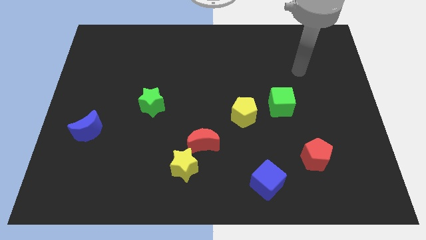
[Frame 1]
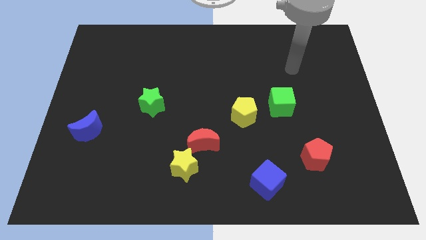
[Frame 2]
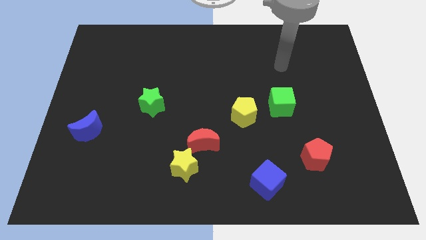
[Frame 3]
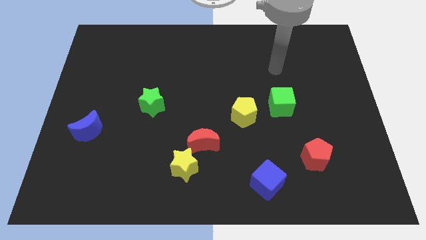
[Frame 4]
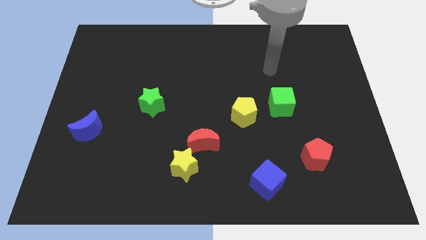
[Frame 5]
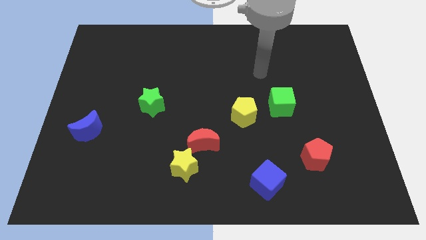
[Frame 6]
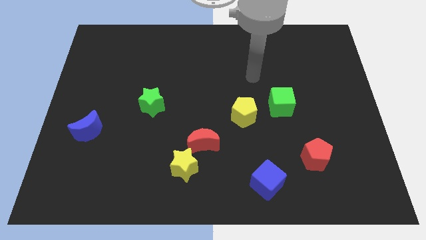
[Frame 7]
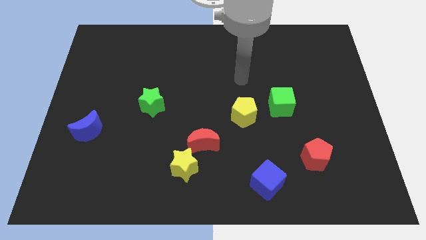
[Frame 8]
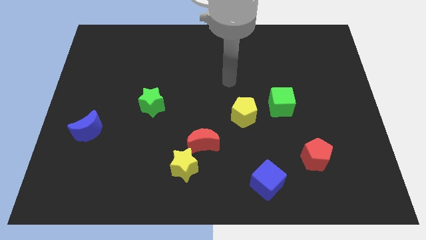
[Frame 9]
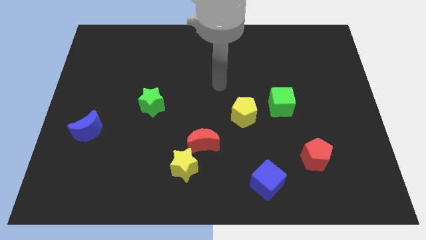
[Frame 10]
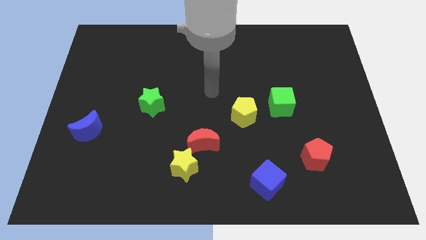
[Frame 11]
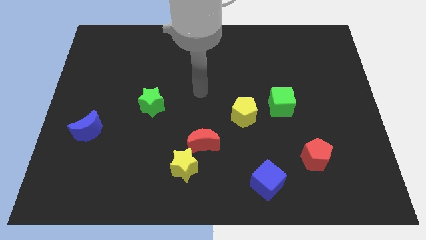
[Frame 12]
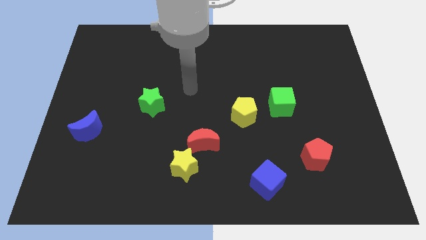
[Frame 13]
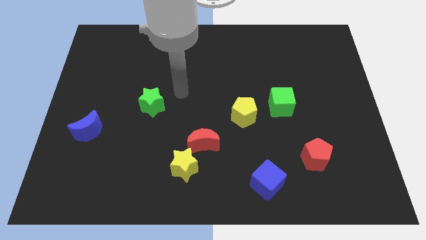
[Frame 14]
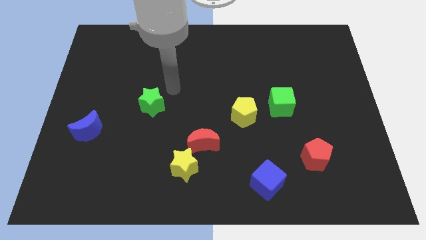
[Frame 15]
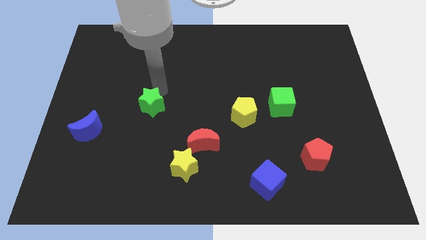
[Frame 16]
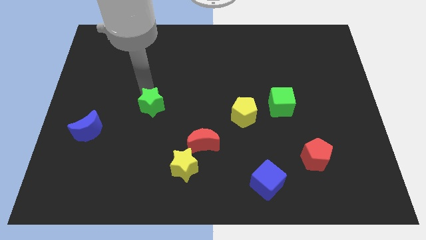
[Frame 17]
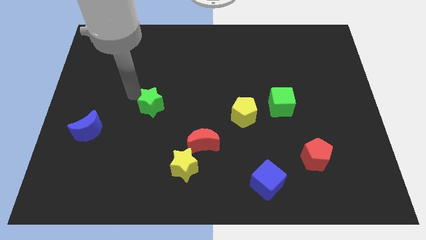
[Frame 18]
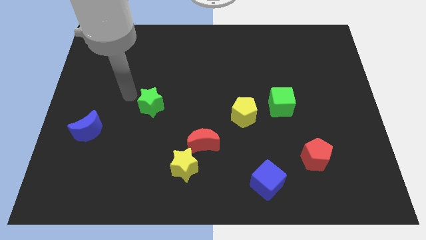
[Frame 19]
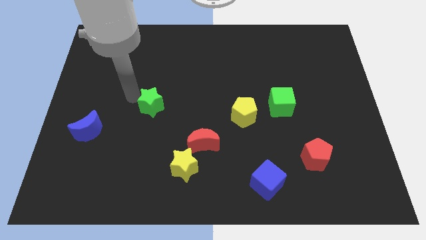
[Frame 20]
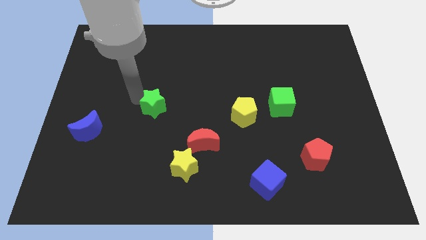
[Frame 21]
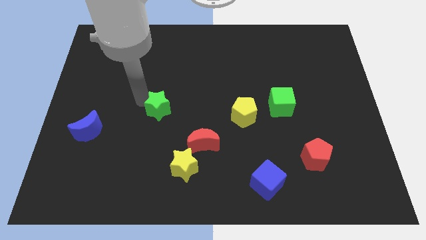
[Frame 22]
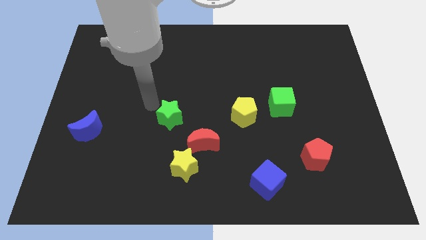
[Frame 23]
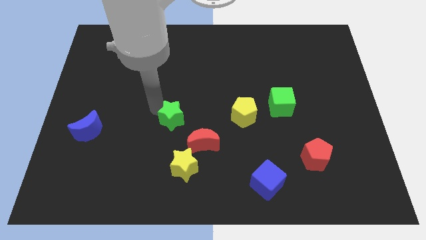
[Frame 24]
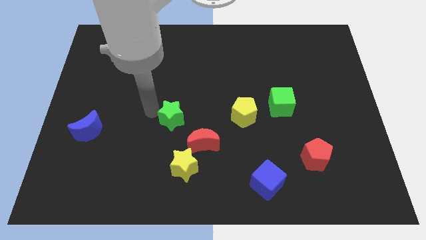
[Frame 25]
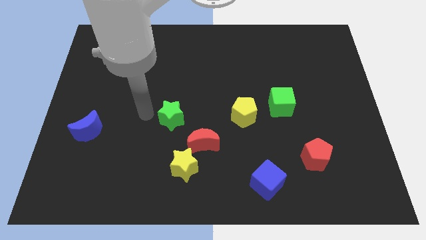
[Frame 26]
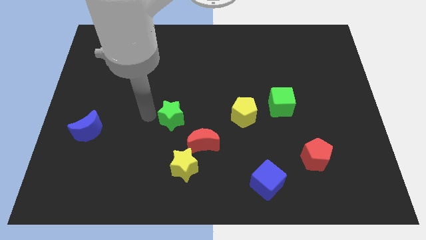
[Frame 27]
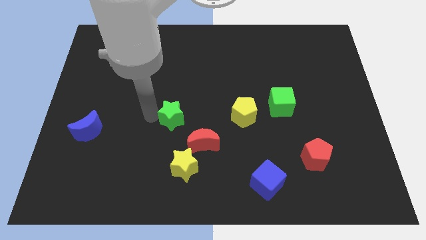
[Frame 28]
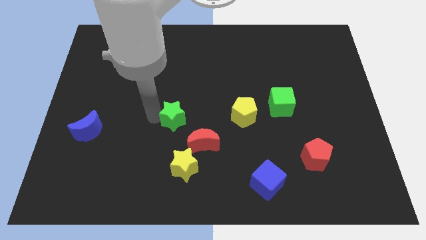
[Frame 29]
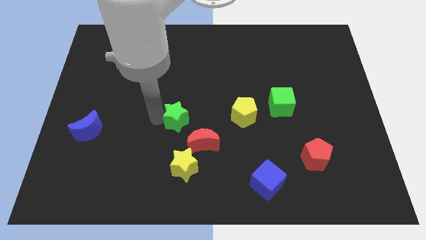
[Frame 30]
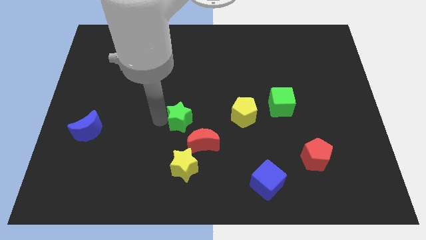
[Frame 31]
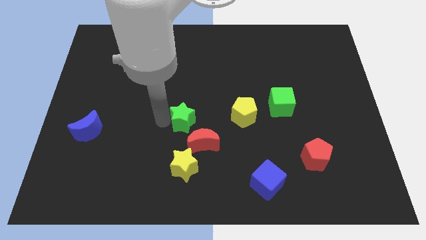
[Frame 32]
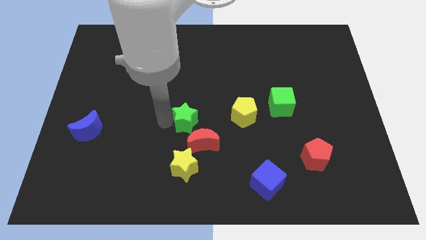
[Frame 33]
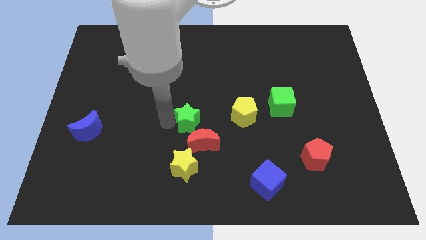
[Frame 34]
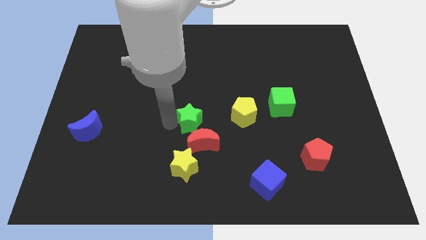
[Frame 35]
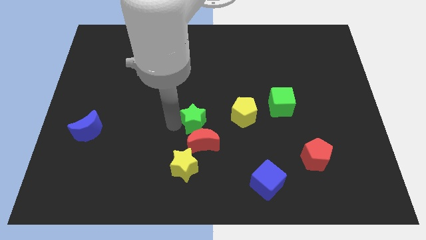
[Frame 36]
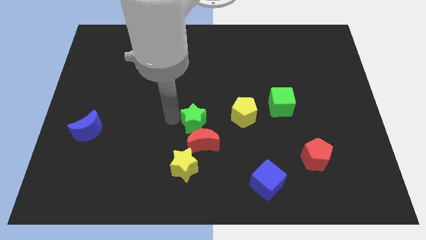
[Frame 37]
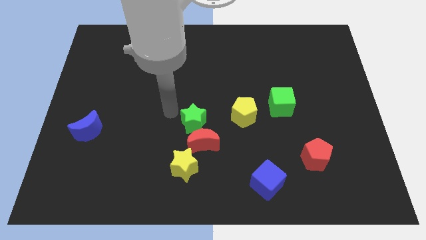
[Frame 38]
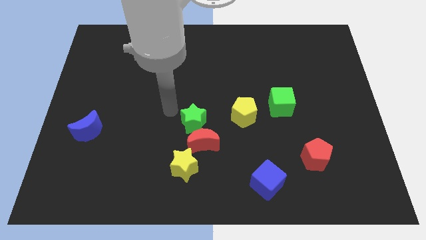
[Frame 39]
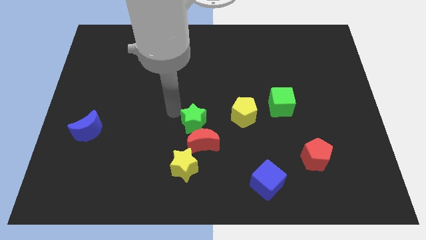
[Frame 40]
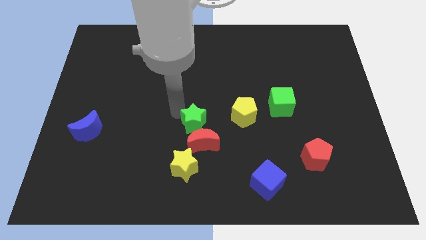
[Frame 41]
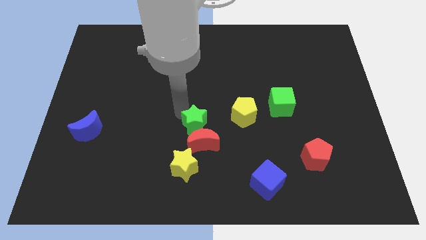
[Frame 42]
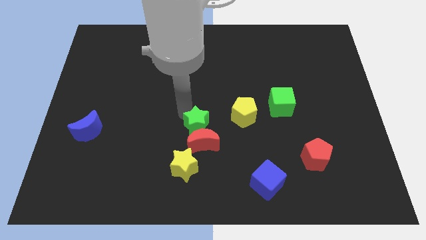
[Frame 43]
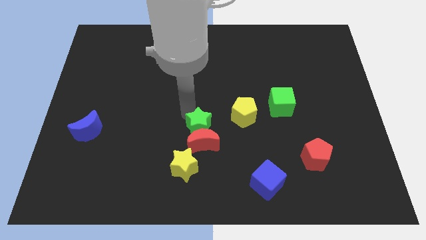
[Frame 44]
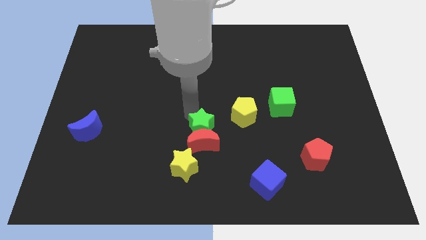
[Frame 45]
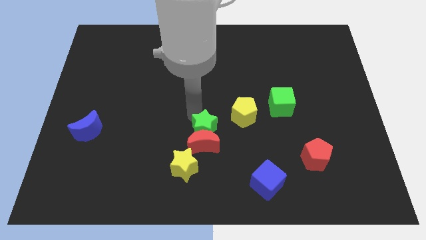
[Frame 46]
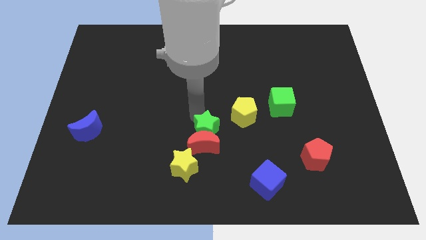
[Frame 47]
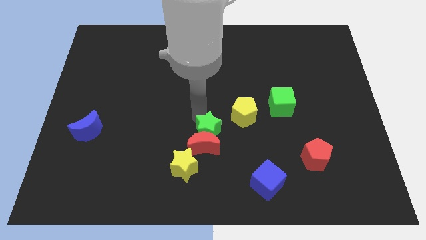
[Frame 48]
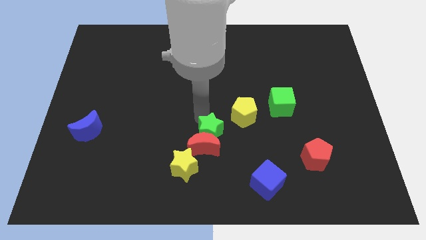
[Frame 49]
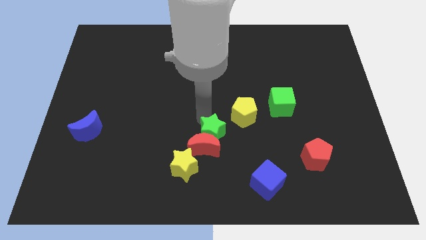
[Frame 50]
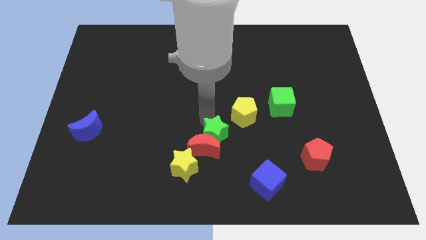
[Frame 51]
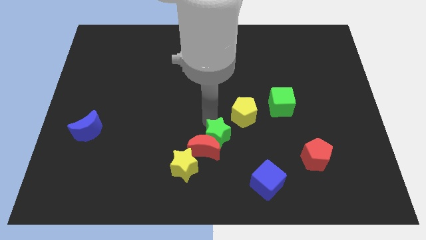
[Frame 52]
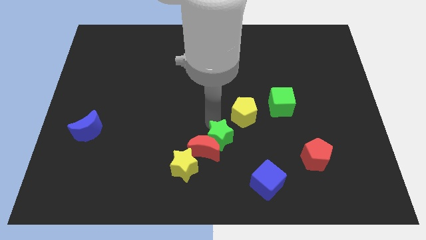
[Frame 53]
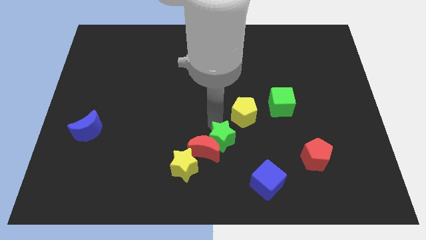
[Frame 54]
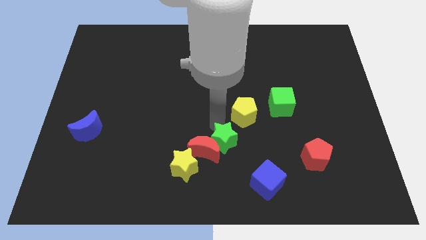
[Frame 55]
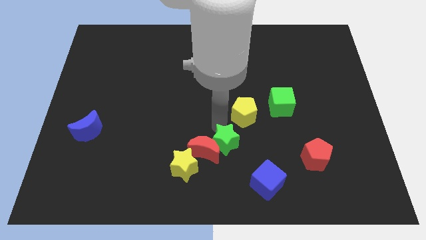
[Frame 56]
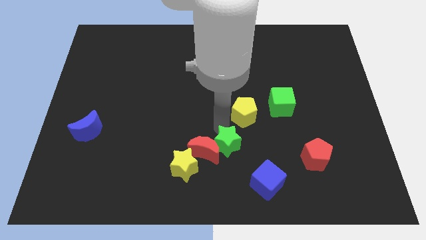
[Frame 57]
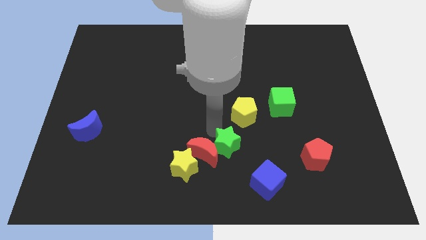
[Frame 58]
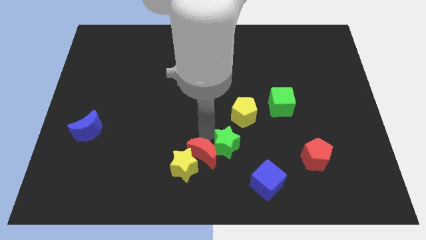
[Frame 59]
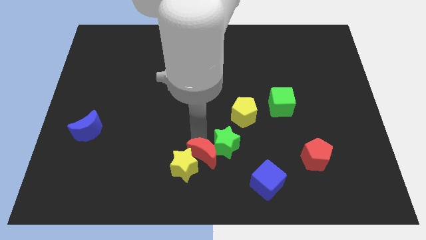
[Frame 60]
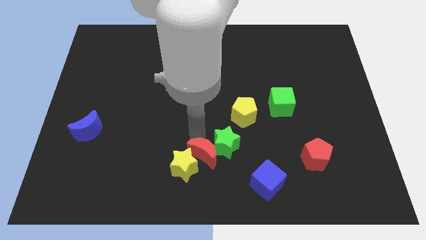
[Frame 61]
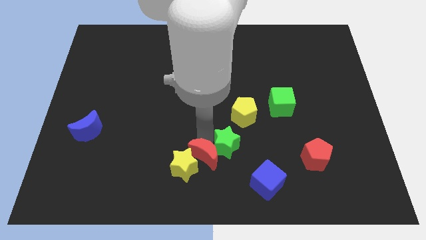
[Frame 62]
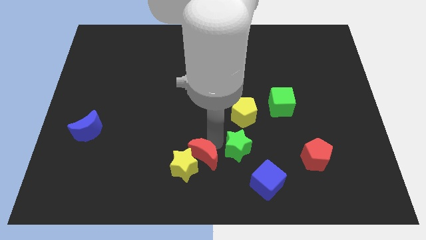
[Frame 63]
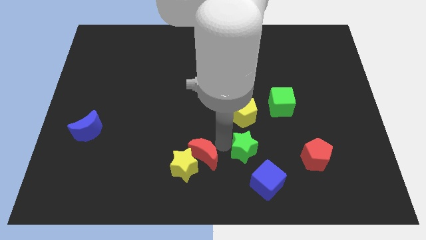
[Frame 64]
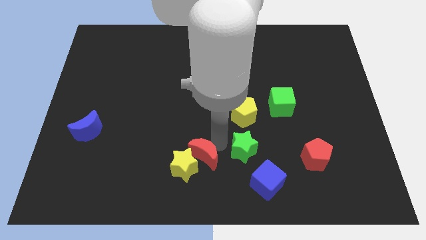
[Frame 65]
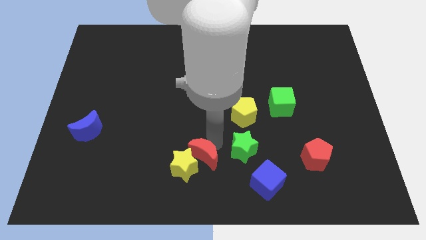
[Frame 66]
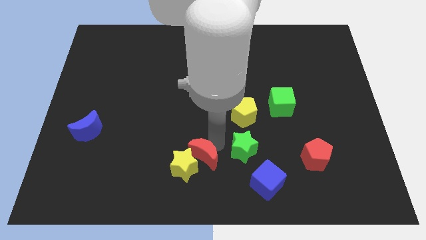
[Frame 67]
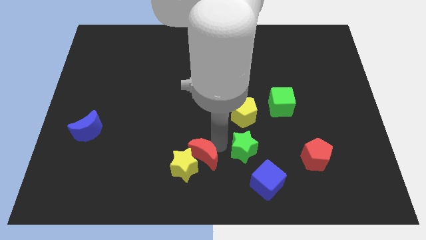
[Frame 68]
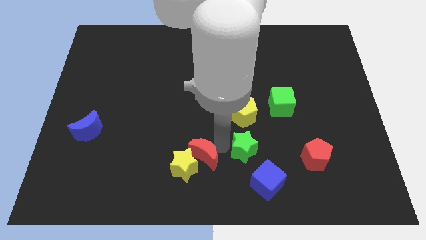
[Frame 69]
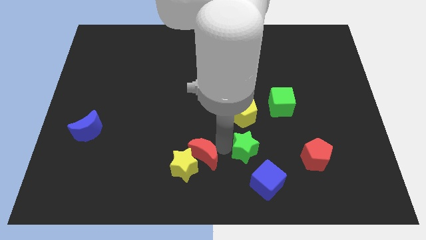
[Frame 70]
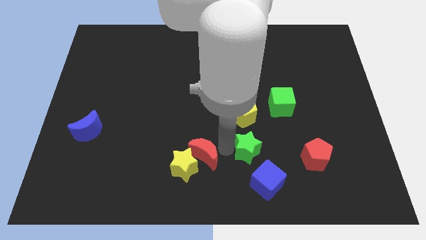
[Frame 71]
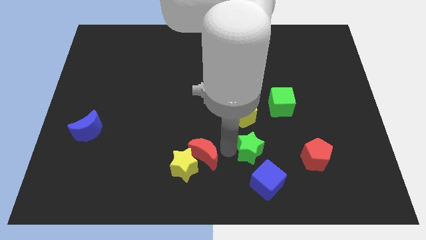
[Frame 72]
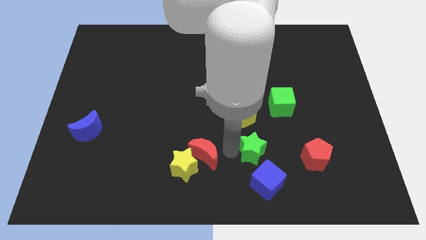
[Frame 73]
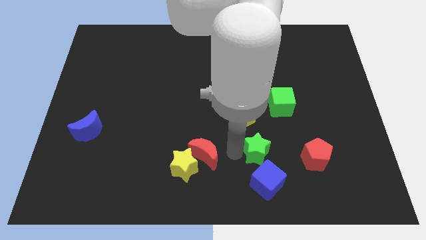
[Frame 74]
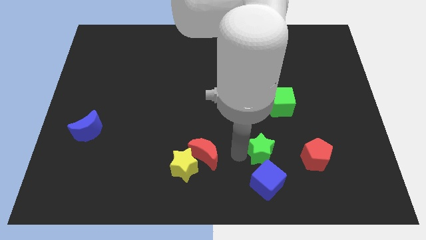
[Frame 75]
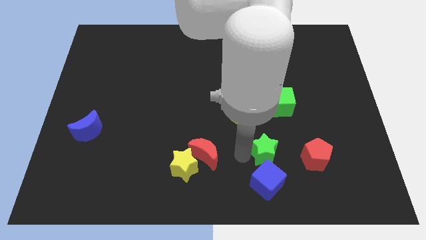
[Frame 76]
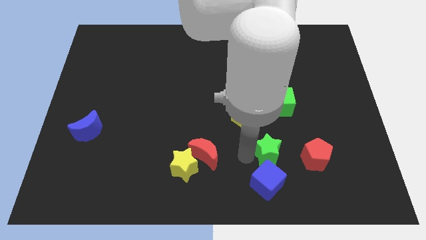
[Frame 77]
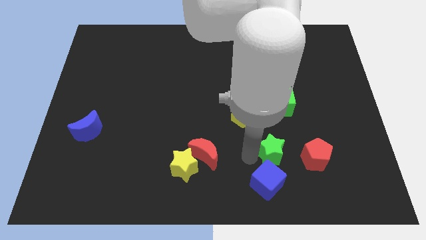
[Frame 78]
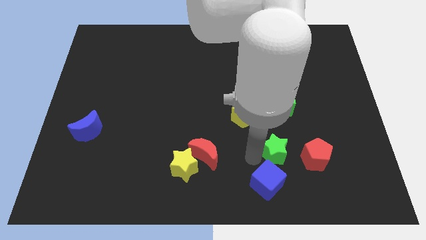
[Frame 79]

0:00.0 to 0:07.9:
put the green star to the top left side of the red pentagon
